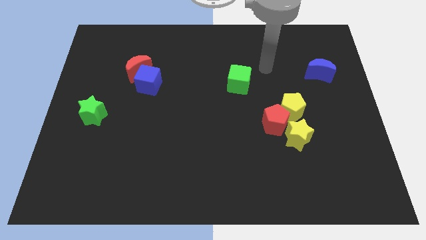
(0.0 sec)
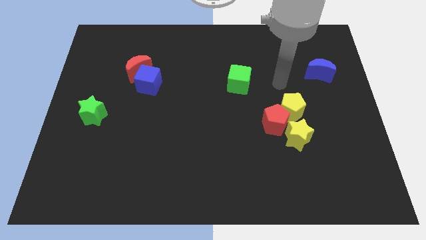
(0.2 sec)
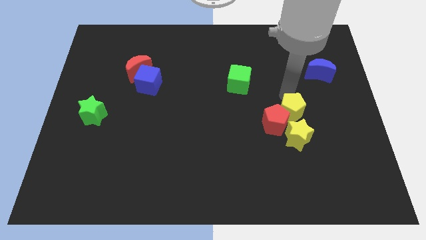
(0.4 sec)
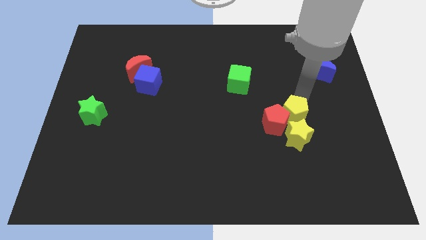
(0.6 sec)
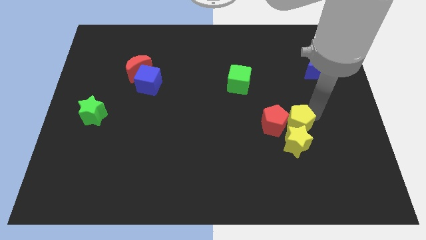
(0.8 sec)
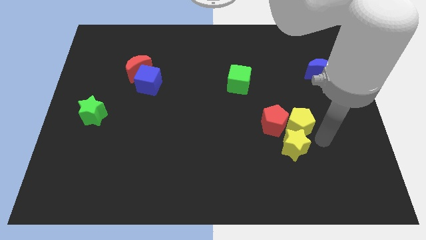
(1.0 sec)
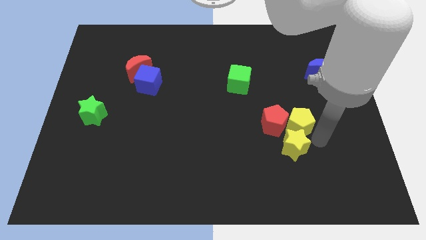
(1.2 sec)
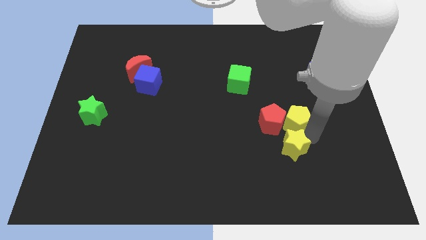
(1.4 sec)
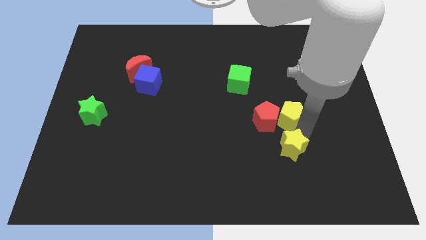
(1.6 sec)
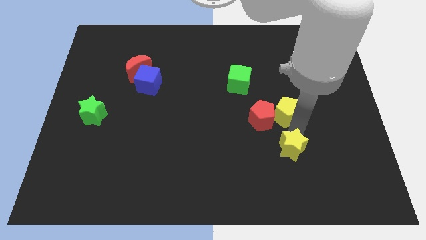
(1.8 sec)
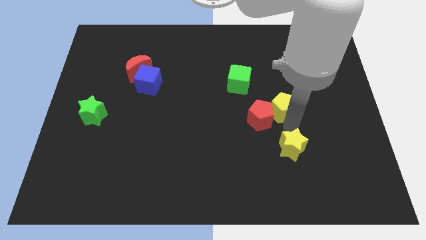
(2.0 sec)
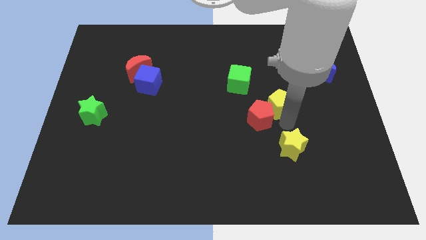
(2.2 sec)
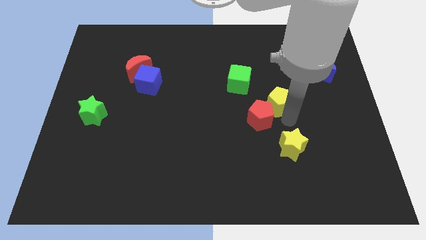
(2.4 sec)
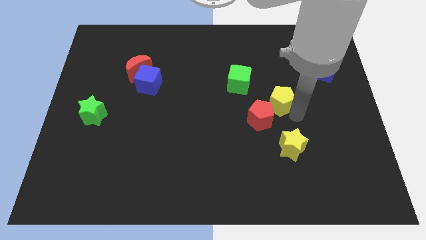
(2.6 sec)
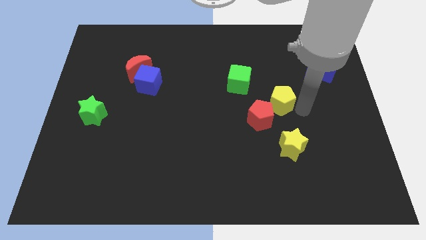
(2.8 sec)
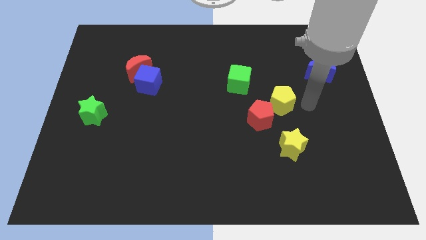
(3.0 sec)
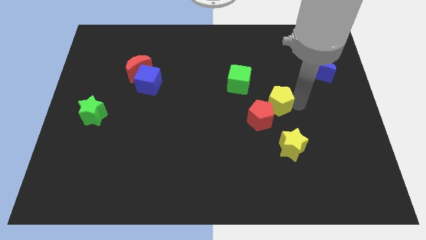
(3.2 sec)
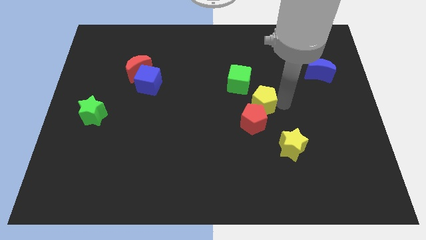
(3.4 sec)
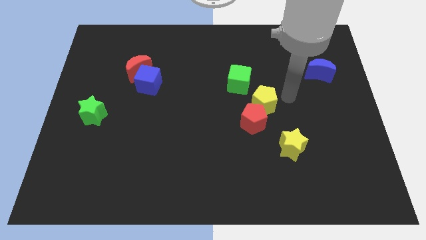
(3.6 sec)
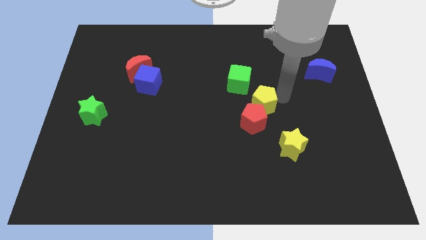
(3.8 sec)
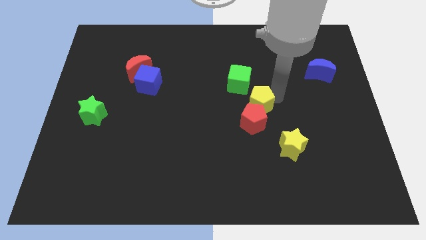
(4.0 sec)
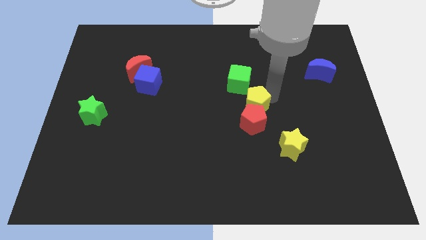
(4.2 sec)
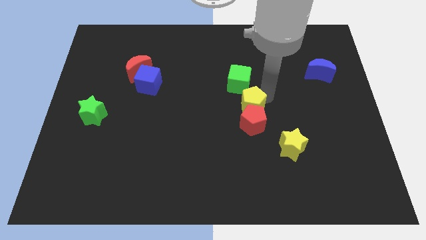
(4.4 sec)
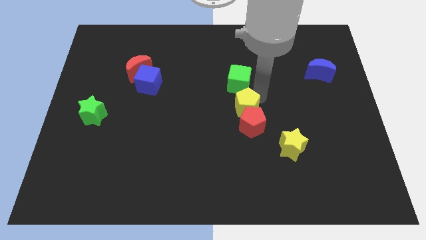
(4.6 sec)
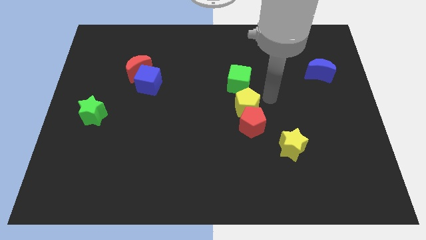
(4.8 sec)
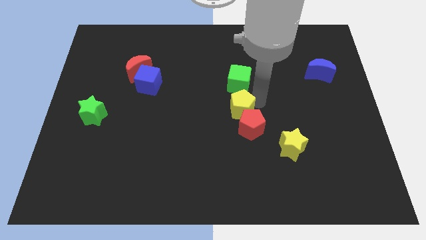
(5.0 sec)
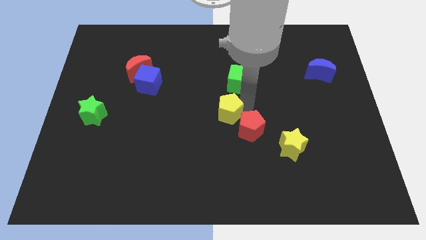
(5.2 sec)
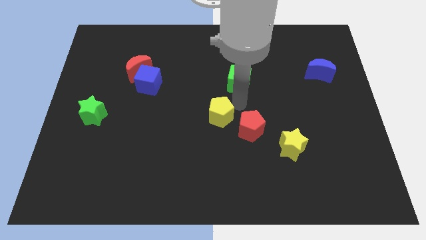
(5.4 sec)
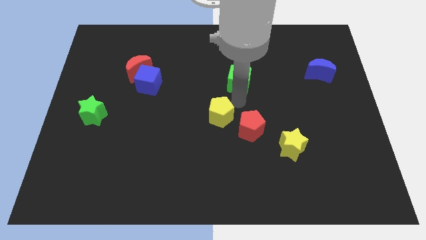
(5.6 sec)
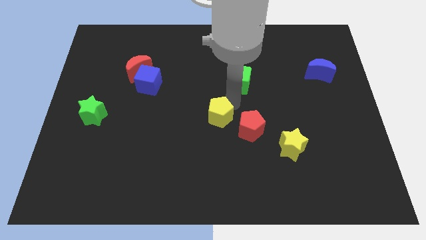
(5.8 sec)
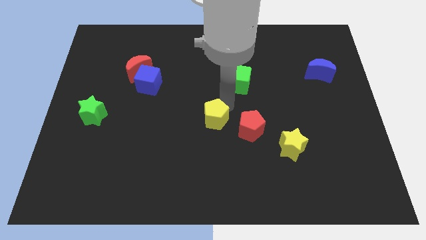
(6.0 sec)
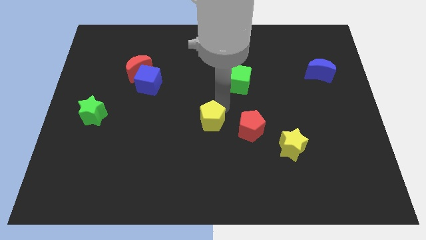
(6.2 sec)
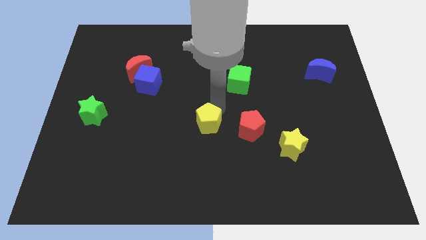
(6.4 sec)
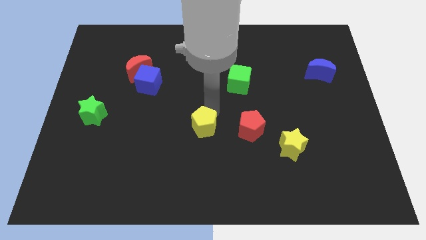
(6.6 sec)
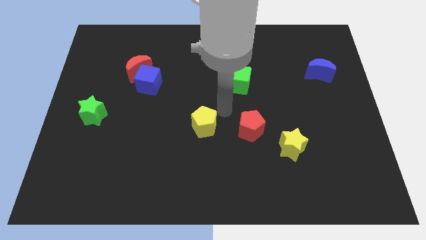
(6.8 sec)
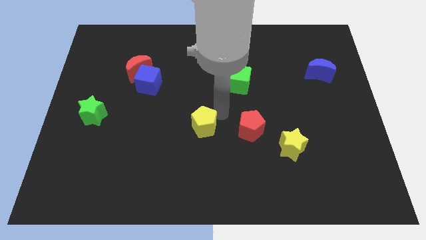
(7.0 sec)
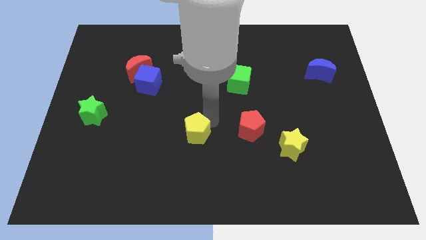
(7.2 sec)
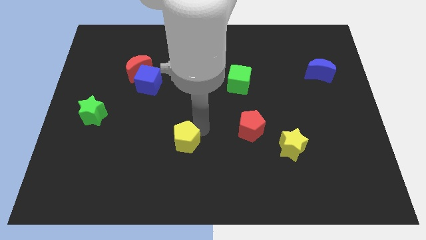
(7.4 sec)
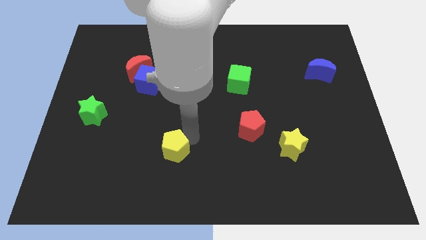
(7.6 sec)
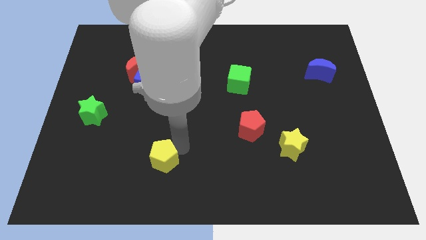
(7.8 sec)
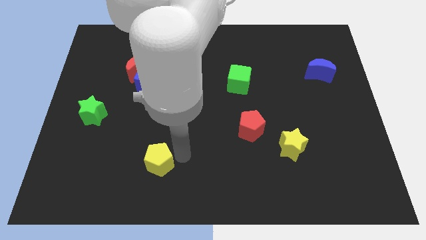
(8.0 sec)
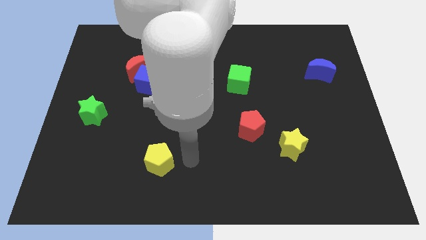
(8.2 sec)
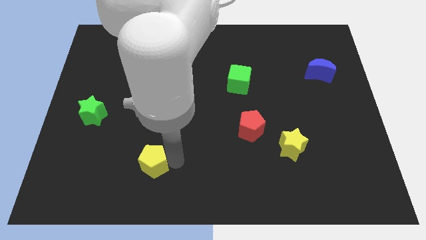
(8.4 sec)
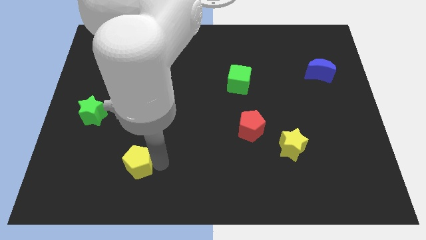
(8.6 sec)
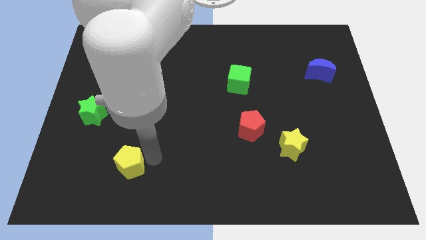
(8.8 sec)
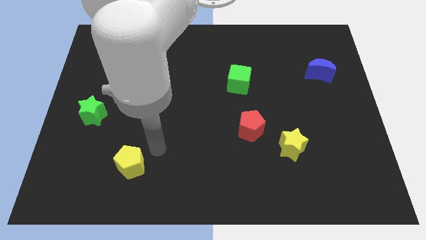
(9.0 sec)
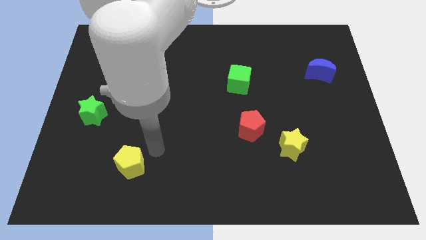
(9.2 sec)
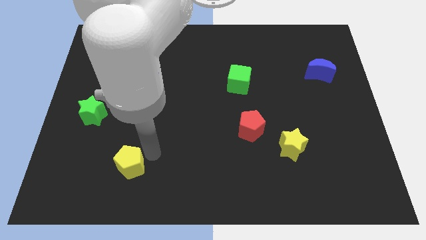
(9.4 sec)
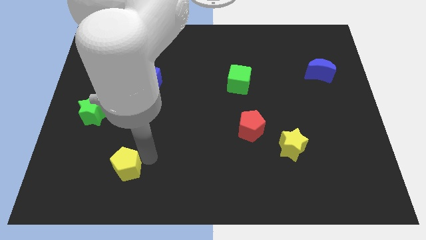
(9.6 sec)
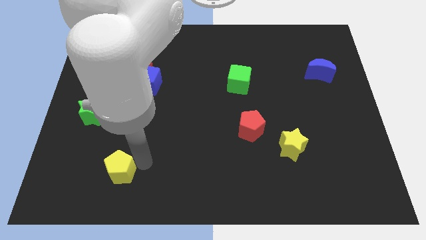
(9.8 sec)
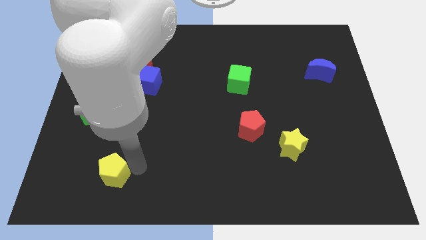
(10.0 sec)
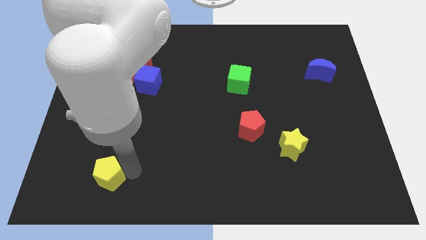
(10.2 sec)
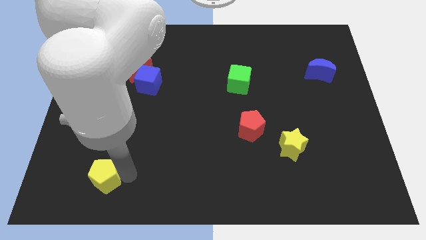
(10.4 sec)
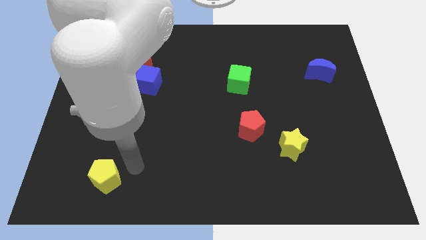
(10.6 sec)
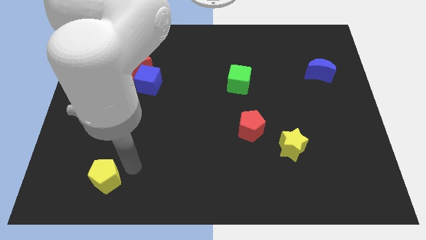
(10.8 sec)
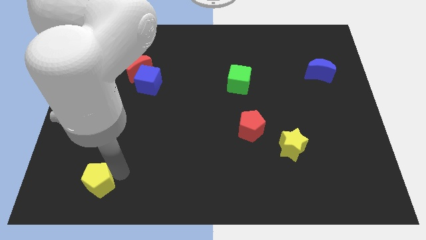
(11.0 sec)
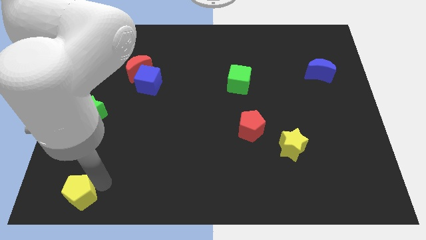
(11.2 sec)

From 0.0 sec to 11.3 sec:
put the yellow pentagon to the lower left corner
